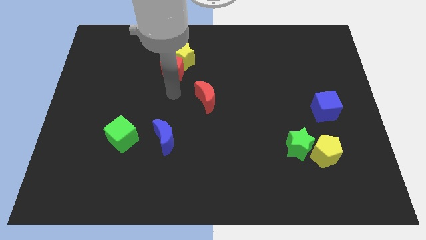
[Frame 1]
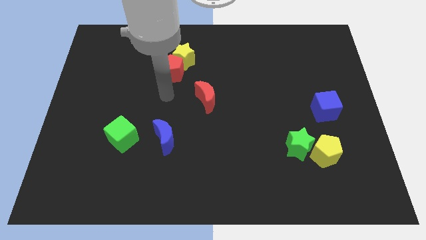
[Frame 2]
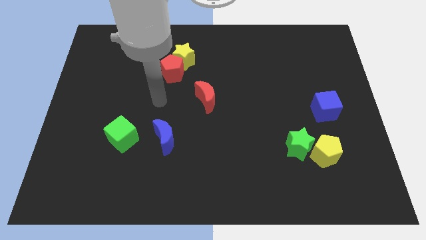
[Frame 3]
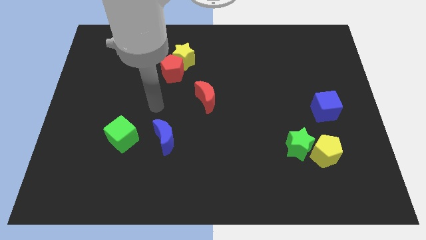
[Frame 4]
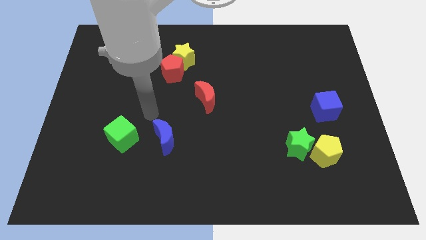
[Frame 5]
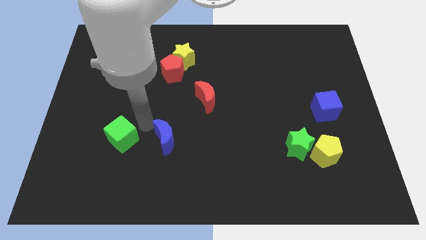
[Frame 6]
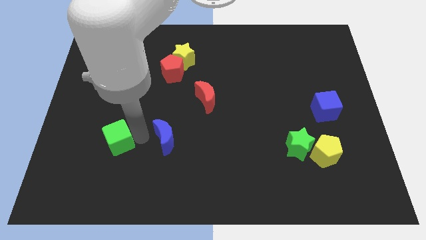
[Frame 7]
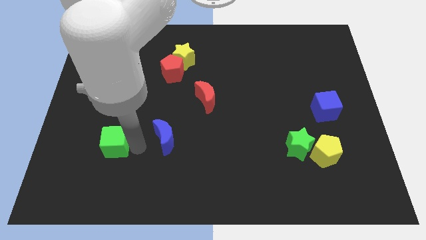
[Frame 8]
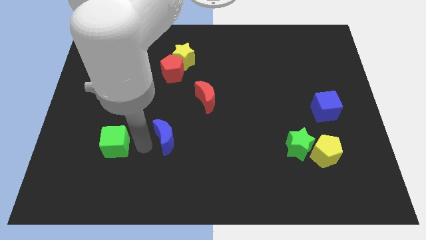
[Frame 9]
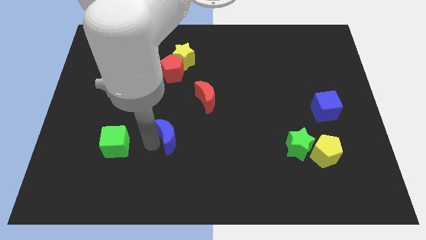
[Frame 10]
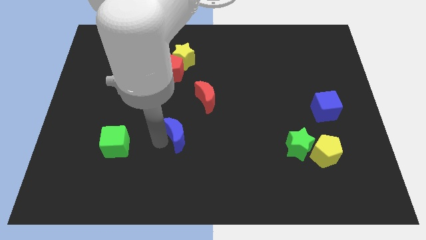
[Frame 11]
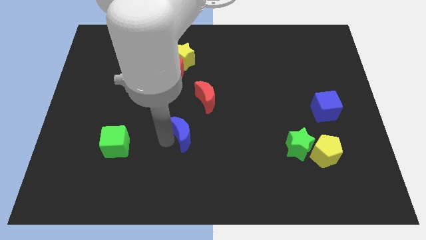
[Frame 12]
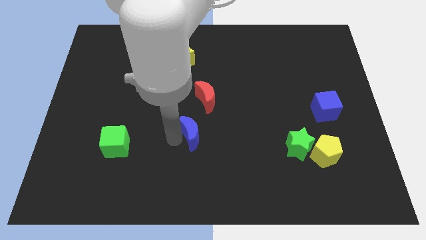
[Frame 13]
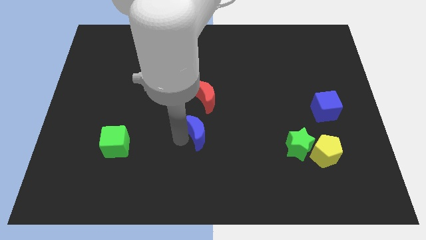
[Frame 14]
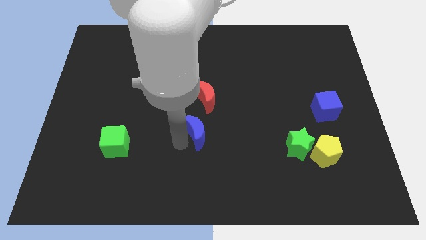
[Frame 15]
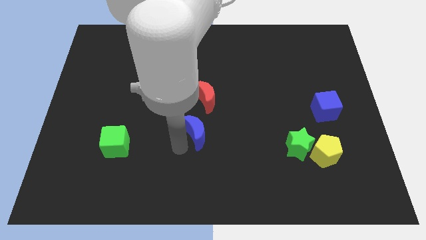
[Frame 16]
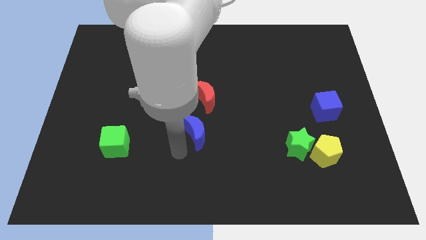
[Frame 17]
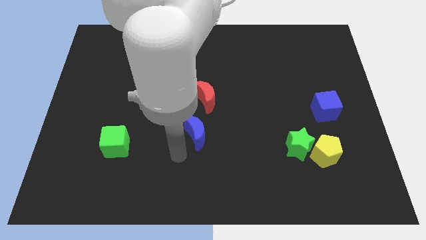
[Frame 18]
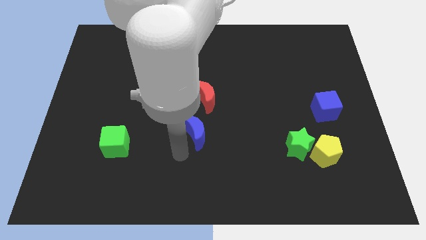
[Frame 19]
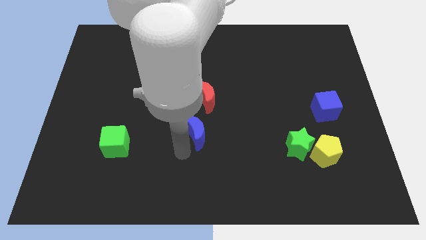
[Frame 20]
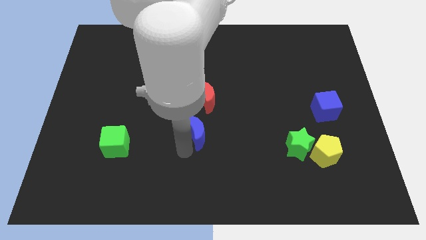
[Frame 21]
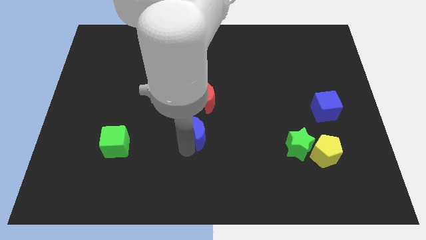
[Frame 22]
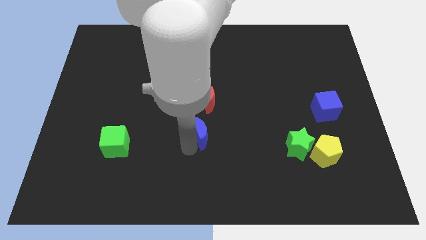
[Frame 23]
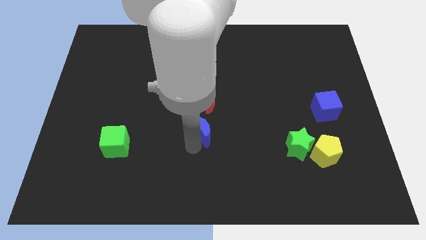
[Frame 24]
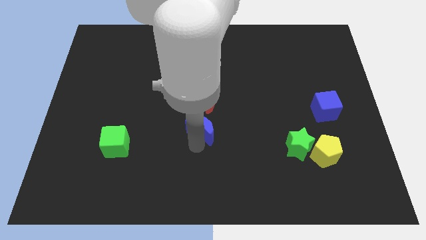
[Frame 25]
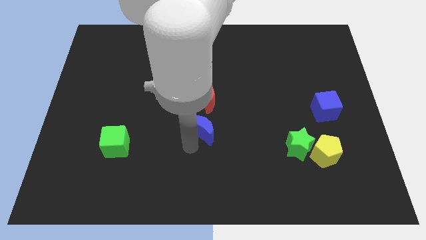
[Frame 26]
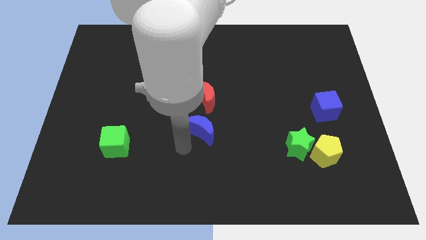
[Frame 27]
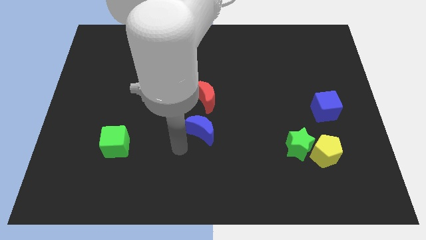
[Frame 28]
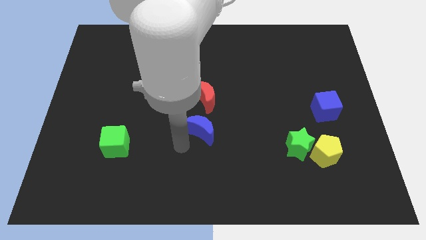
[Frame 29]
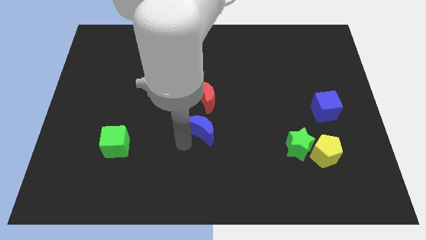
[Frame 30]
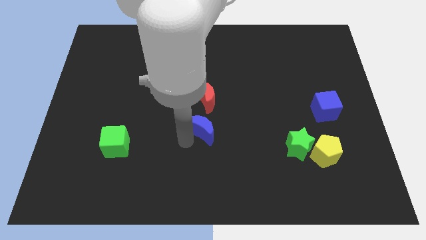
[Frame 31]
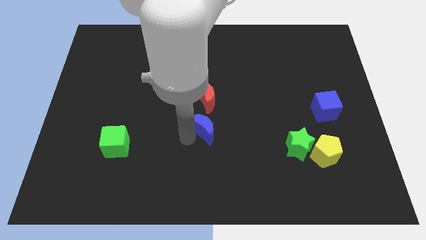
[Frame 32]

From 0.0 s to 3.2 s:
slide the blue moon up and to the right a bit

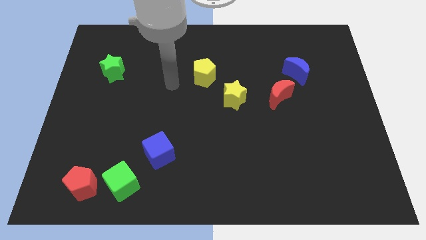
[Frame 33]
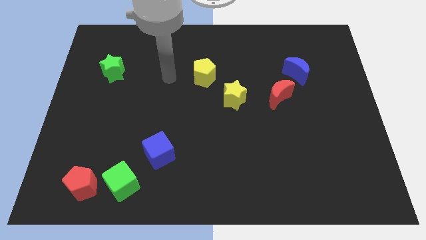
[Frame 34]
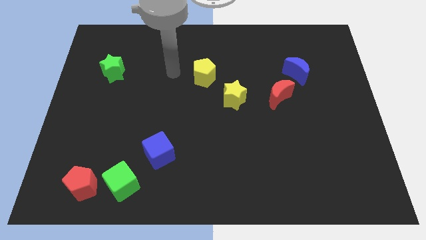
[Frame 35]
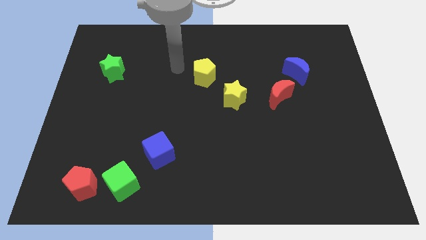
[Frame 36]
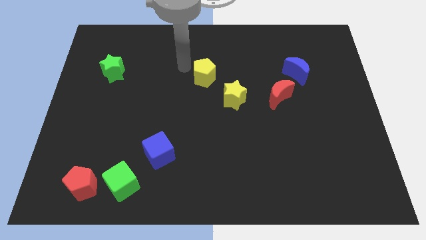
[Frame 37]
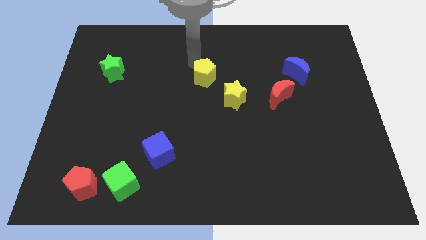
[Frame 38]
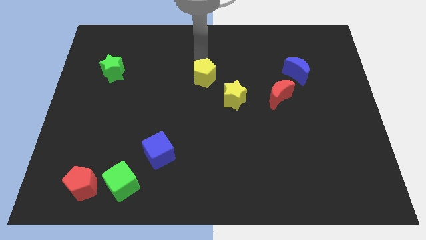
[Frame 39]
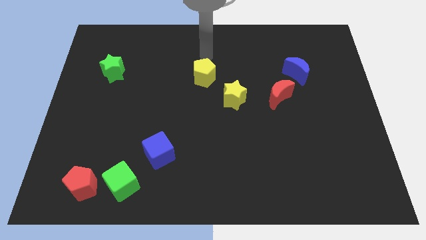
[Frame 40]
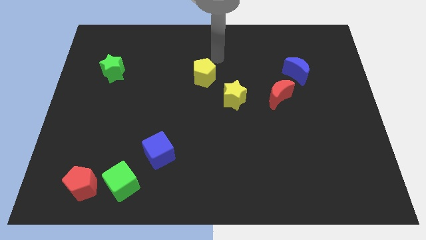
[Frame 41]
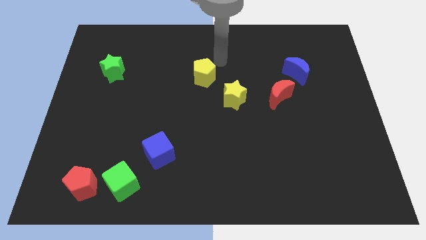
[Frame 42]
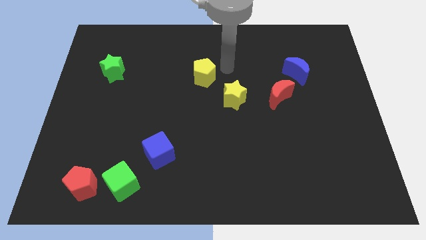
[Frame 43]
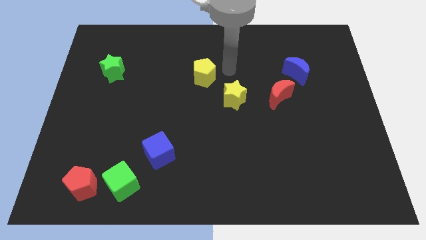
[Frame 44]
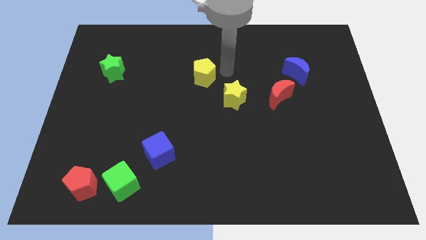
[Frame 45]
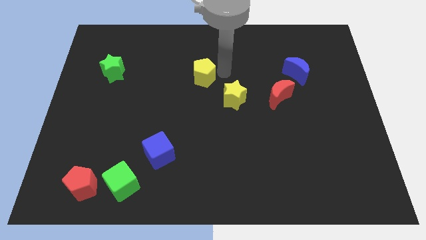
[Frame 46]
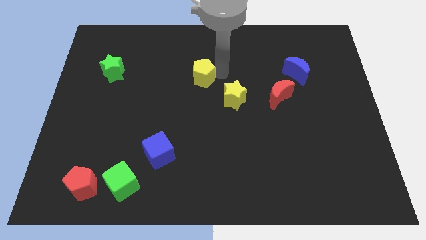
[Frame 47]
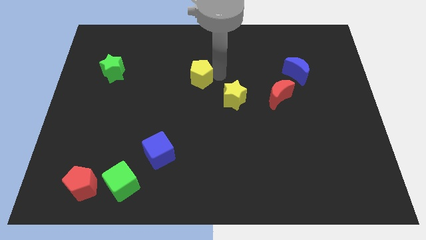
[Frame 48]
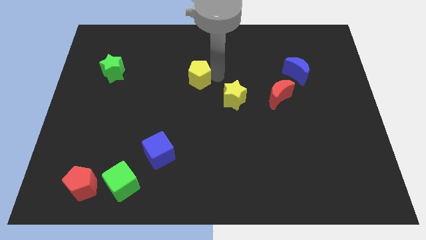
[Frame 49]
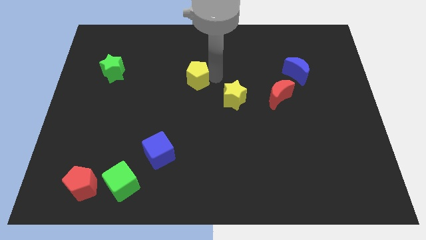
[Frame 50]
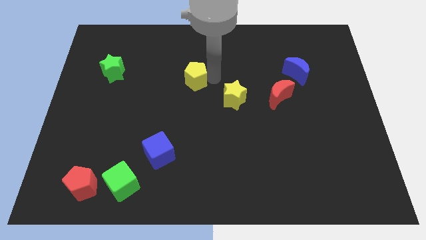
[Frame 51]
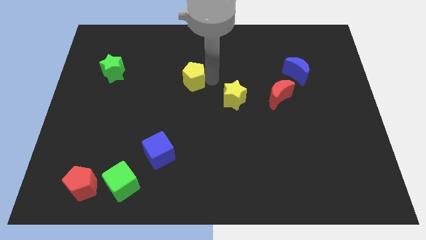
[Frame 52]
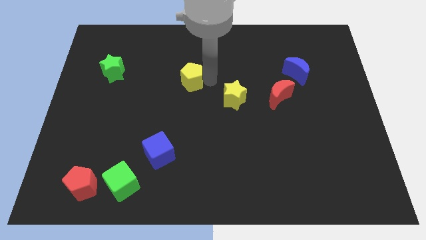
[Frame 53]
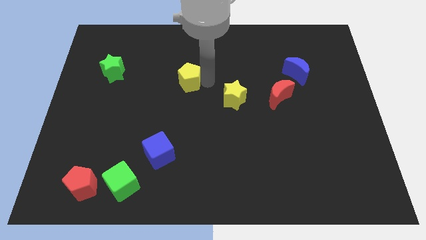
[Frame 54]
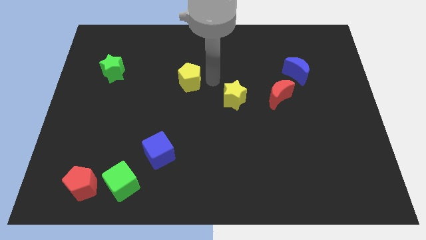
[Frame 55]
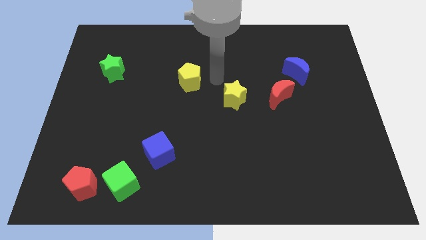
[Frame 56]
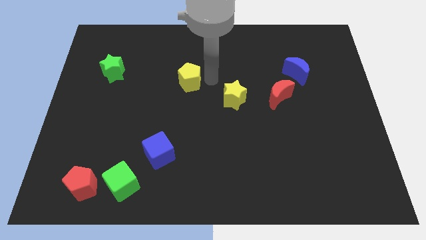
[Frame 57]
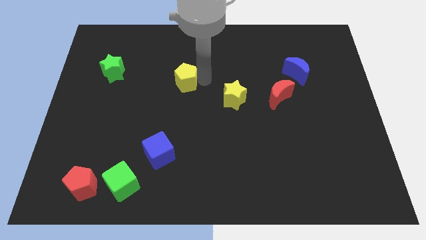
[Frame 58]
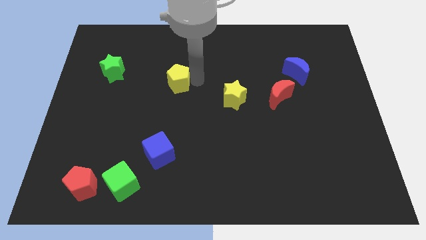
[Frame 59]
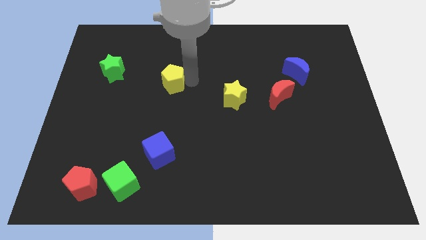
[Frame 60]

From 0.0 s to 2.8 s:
slide the yellow pentagon a little bit left

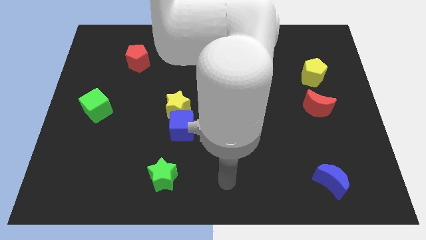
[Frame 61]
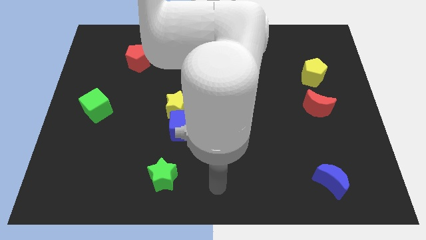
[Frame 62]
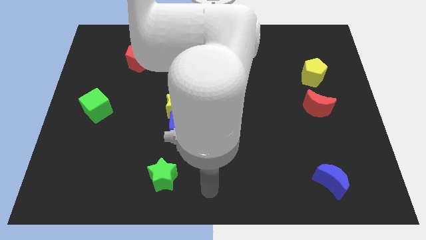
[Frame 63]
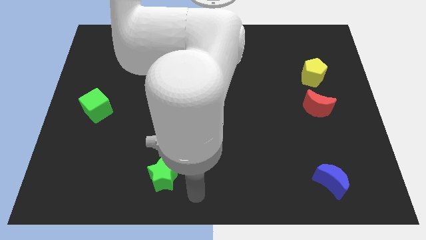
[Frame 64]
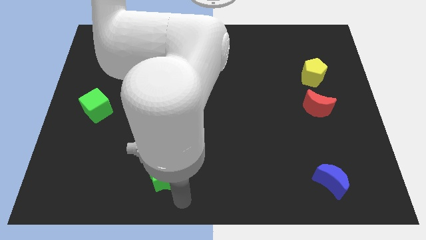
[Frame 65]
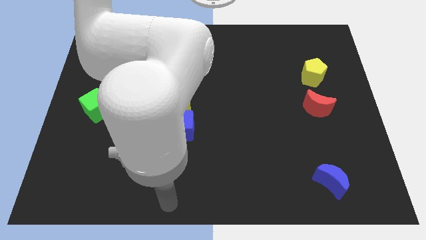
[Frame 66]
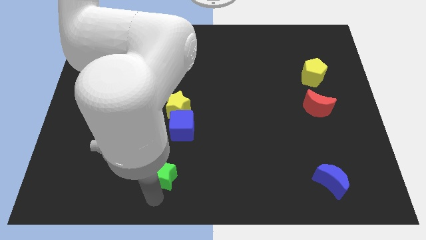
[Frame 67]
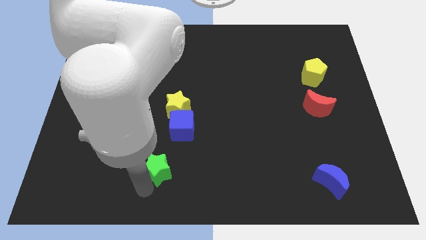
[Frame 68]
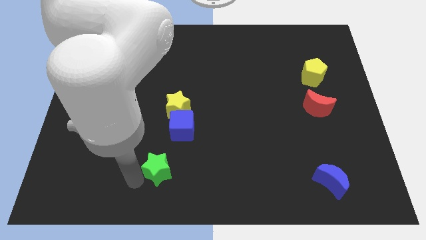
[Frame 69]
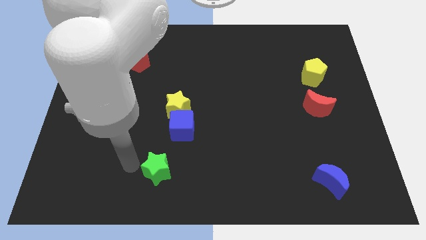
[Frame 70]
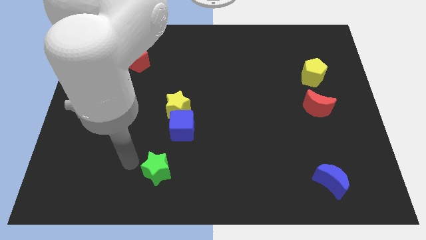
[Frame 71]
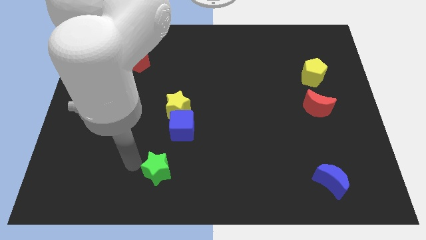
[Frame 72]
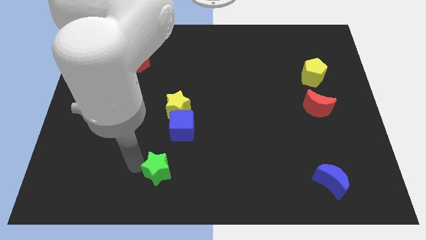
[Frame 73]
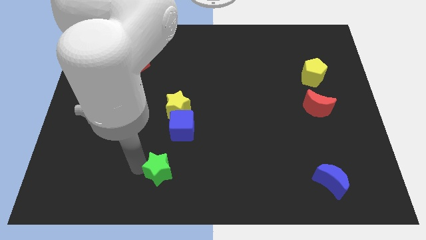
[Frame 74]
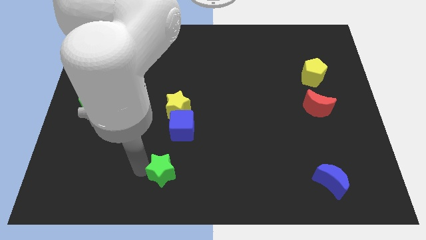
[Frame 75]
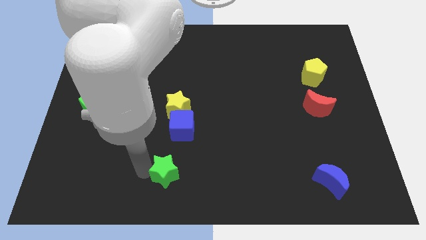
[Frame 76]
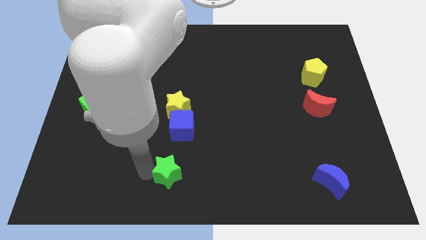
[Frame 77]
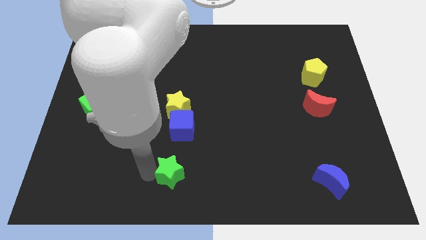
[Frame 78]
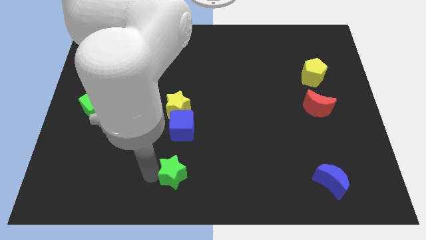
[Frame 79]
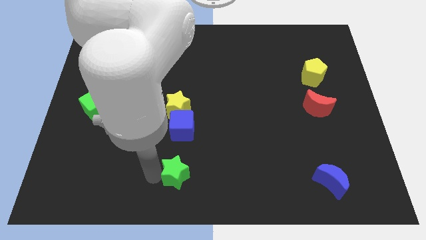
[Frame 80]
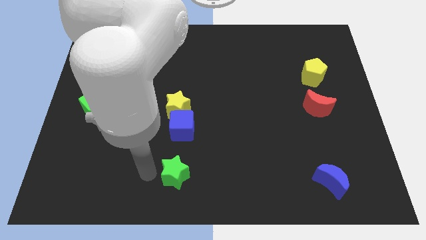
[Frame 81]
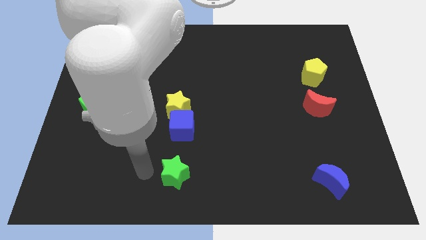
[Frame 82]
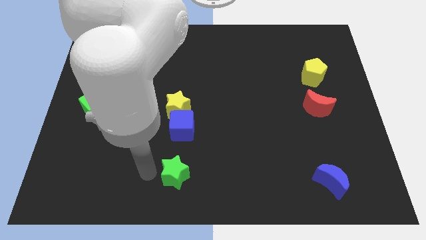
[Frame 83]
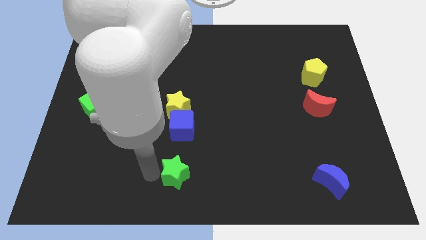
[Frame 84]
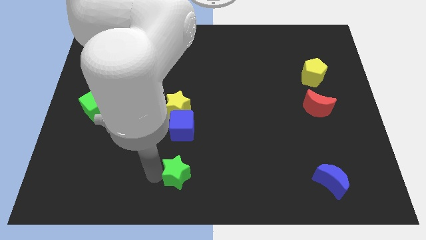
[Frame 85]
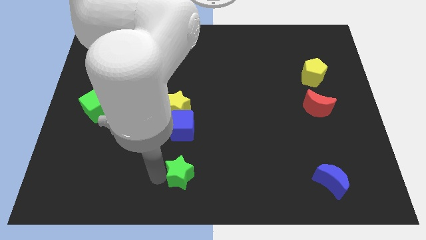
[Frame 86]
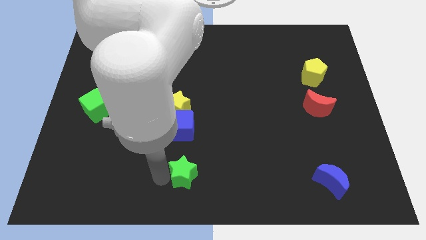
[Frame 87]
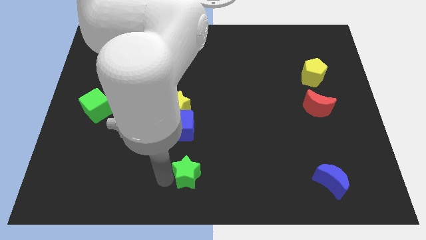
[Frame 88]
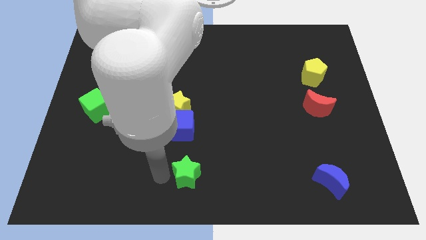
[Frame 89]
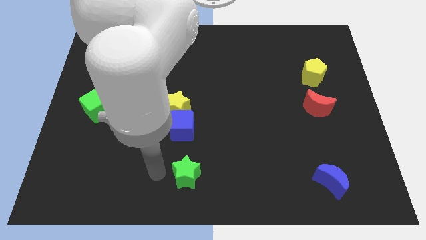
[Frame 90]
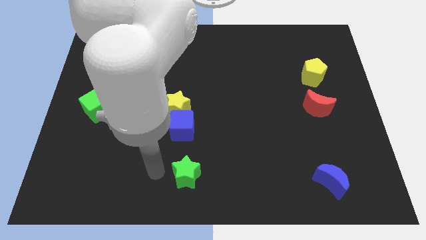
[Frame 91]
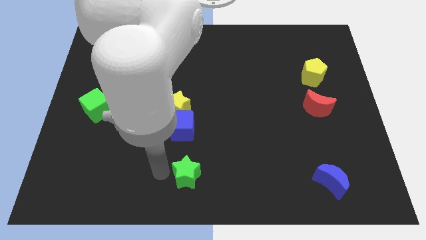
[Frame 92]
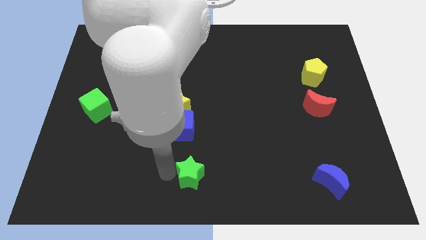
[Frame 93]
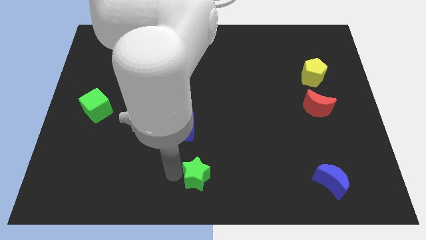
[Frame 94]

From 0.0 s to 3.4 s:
slightly push the green star to the right
